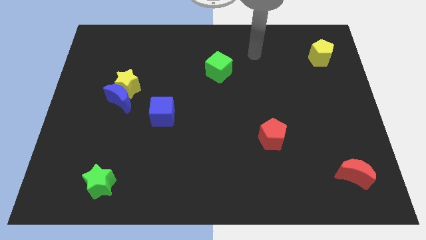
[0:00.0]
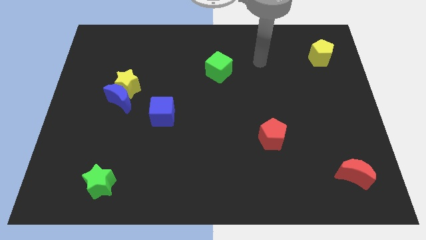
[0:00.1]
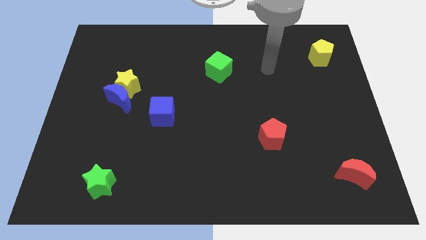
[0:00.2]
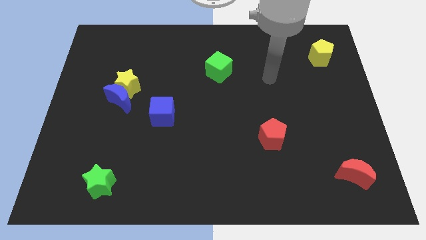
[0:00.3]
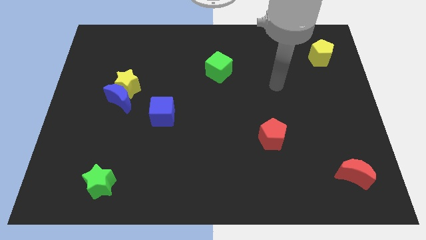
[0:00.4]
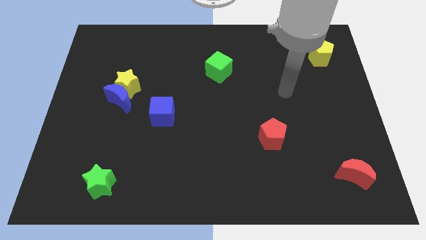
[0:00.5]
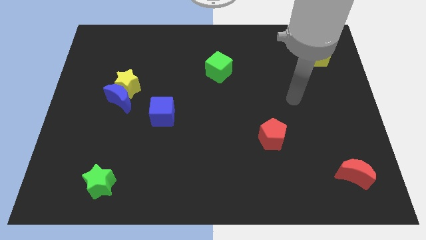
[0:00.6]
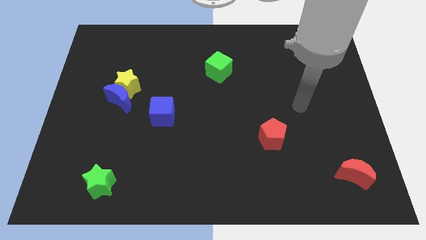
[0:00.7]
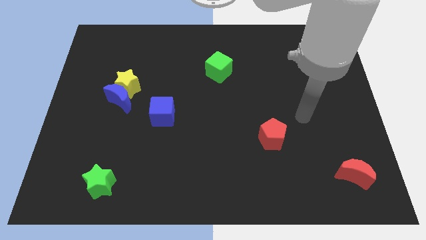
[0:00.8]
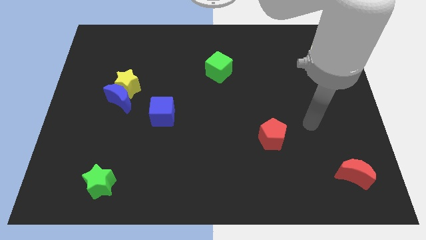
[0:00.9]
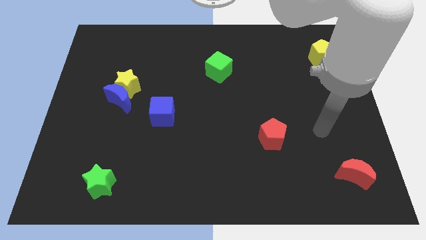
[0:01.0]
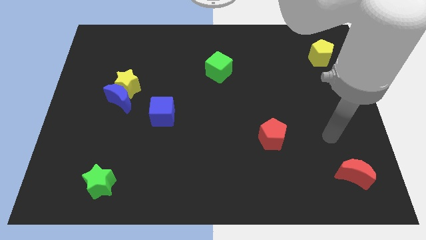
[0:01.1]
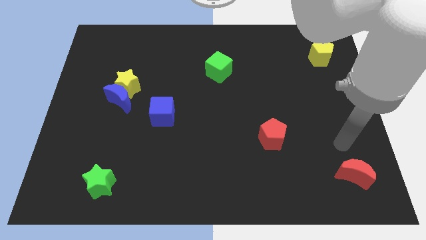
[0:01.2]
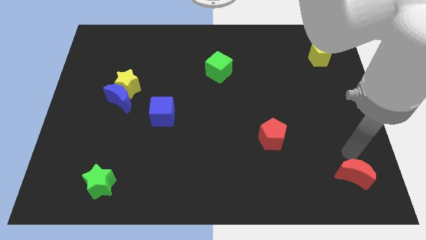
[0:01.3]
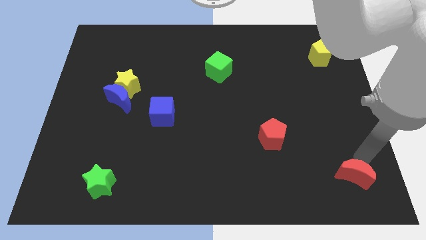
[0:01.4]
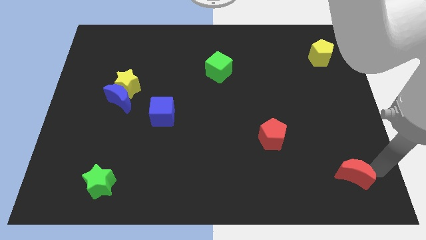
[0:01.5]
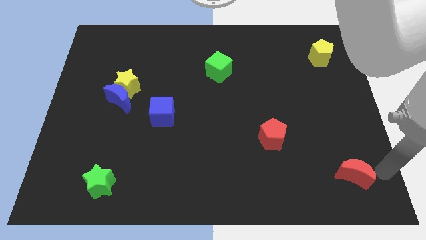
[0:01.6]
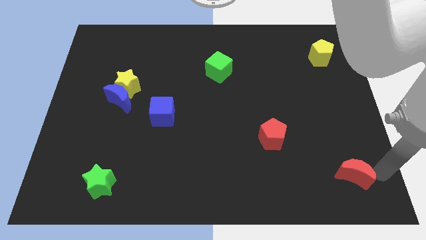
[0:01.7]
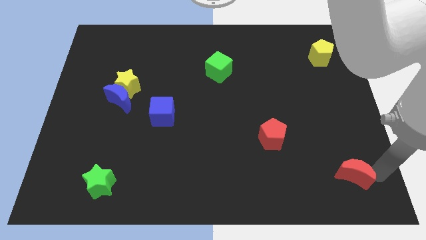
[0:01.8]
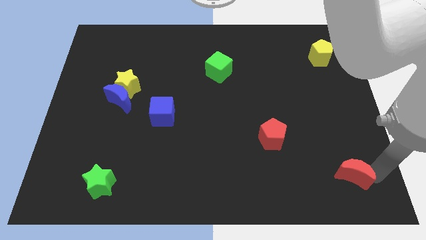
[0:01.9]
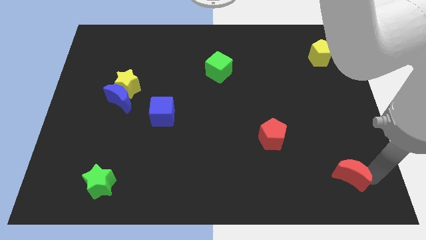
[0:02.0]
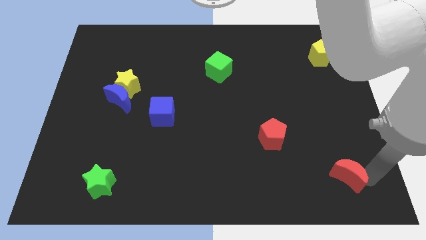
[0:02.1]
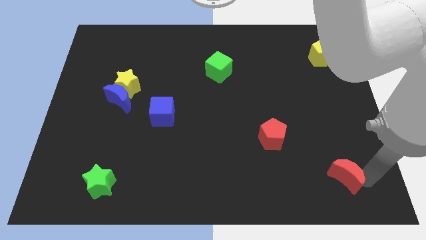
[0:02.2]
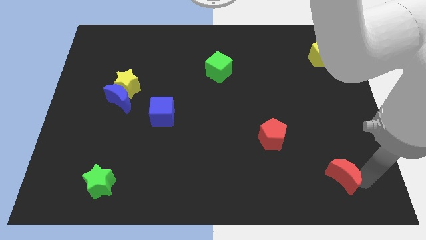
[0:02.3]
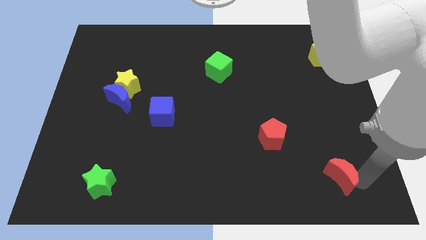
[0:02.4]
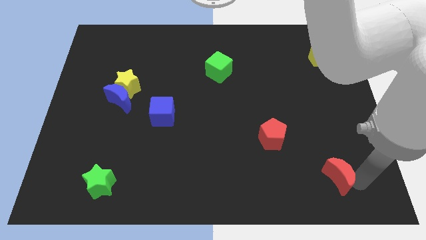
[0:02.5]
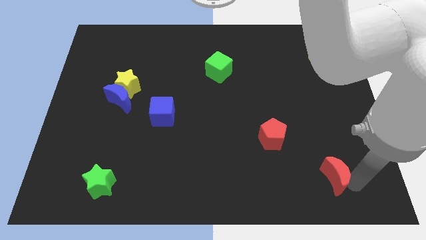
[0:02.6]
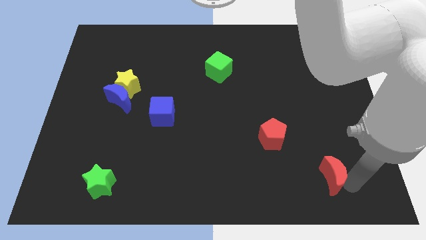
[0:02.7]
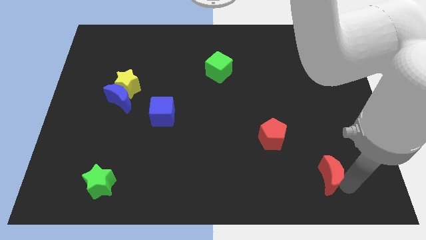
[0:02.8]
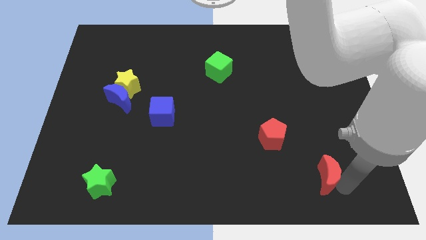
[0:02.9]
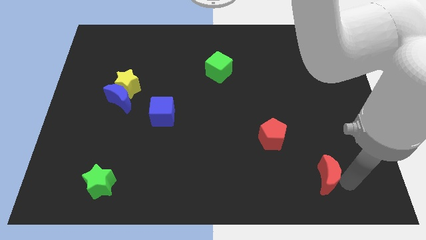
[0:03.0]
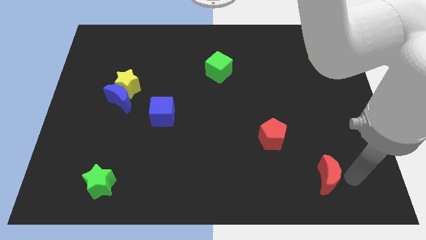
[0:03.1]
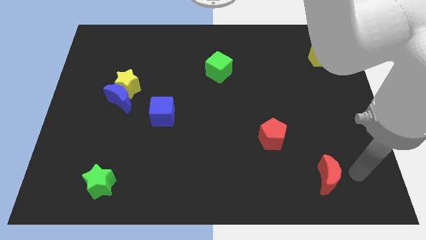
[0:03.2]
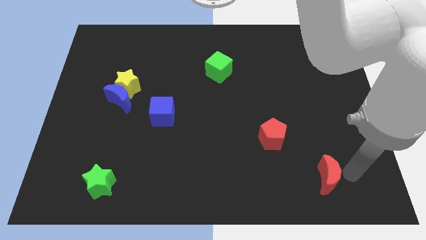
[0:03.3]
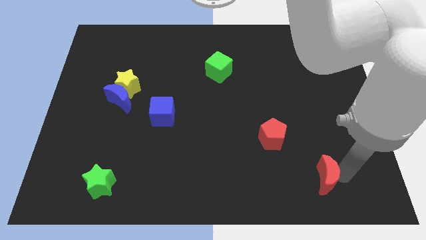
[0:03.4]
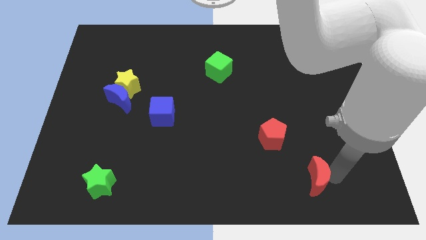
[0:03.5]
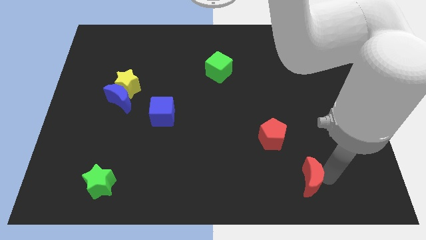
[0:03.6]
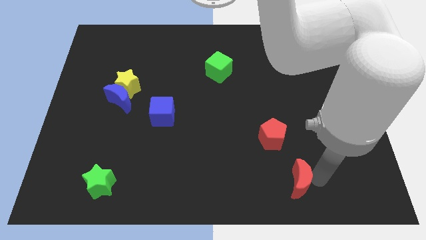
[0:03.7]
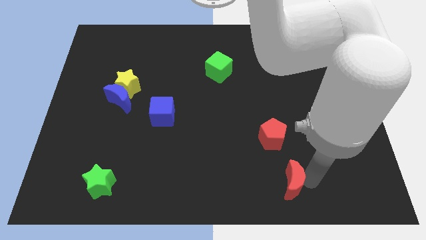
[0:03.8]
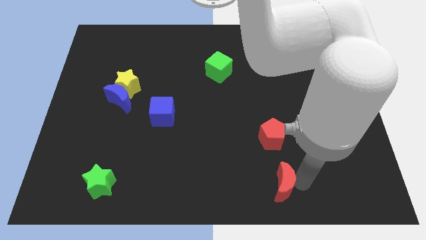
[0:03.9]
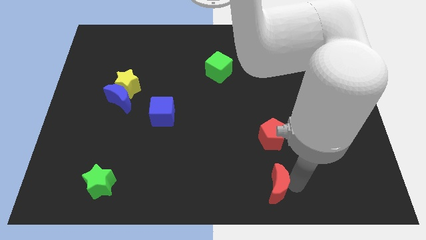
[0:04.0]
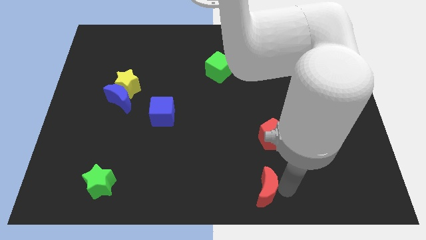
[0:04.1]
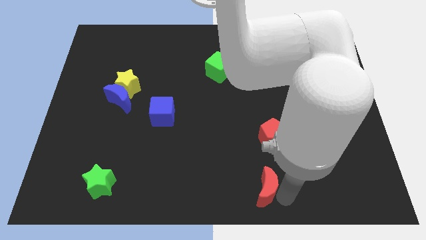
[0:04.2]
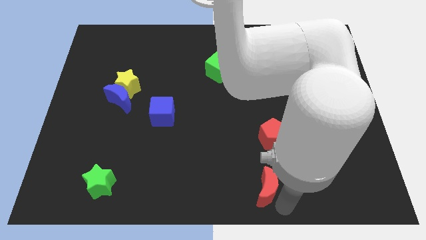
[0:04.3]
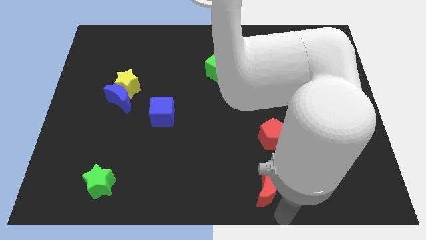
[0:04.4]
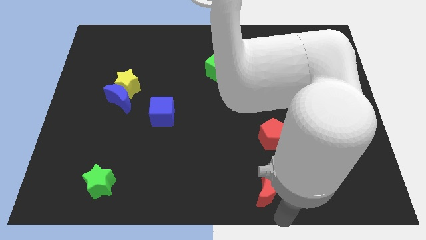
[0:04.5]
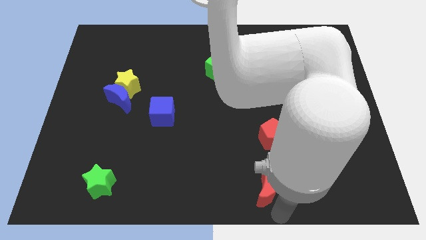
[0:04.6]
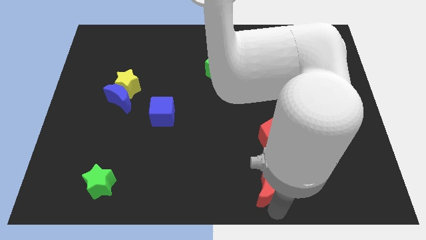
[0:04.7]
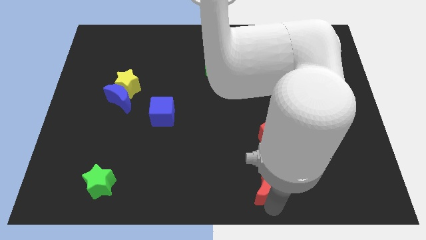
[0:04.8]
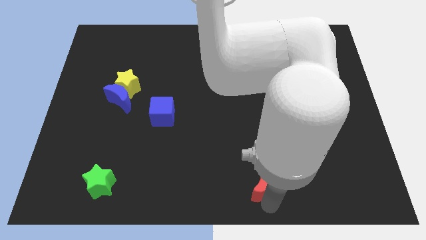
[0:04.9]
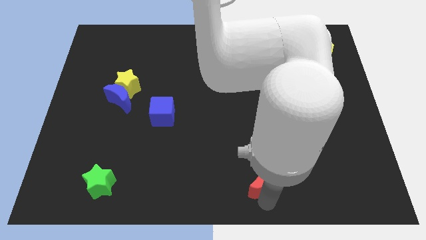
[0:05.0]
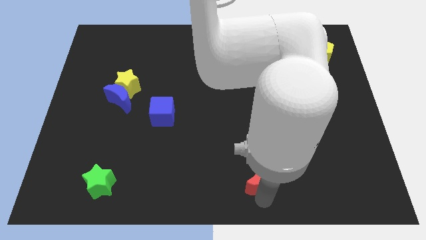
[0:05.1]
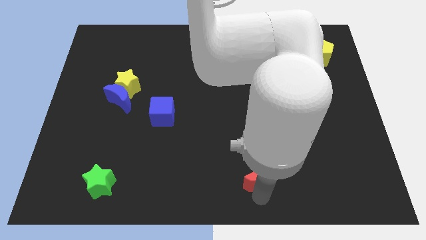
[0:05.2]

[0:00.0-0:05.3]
put the red moon to the bottom left of the red pentagon

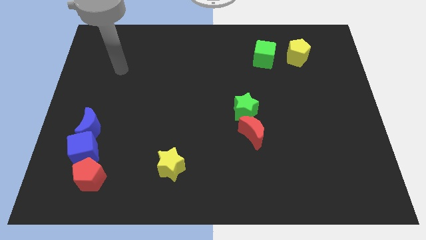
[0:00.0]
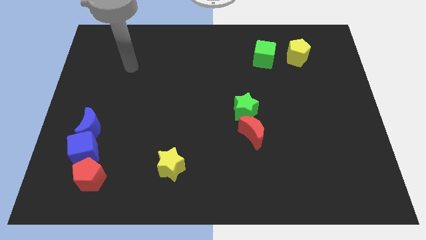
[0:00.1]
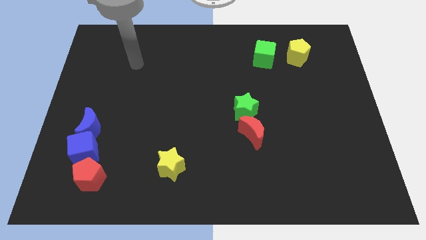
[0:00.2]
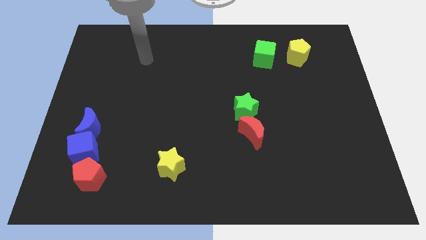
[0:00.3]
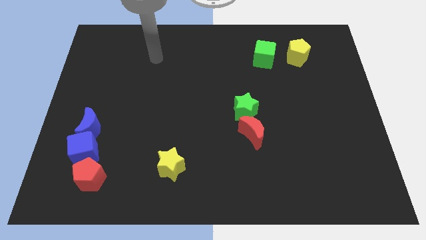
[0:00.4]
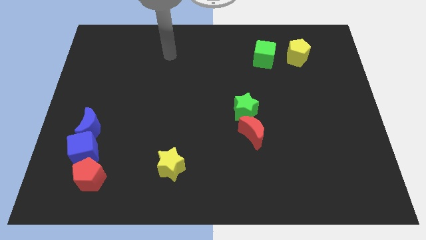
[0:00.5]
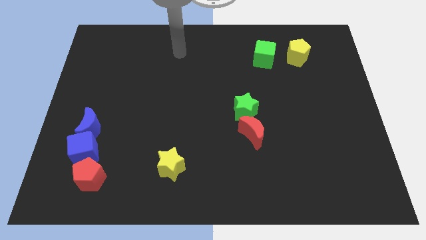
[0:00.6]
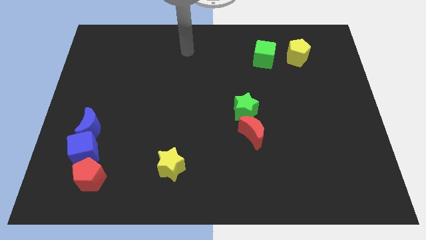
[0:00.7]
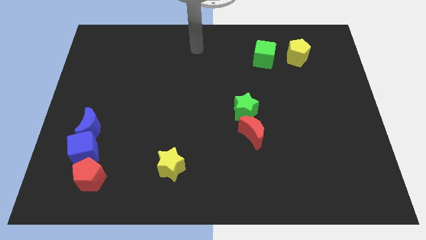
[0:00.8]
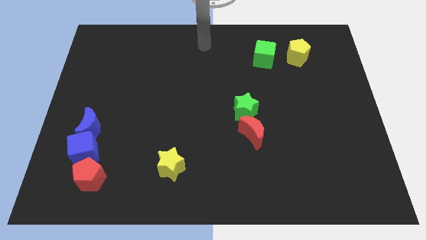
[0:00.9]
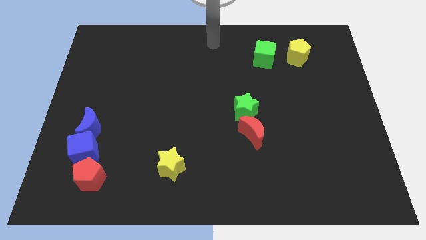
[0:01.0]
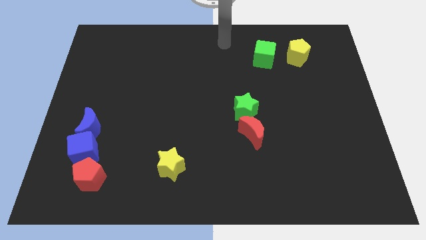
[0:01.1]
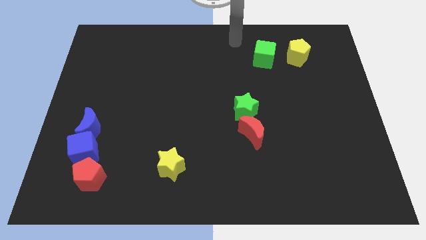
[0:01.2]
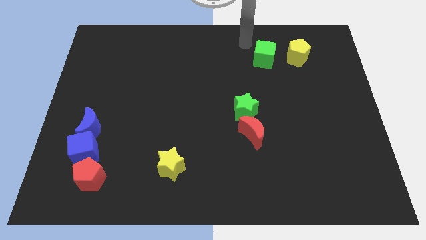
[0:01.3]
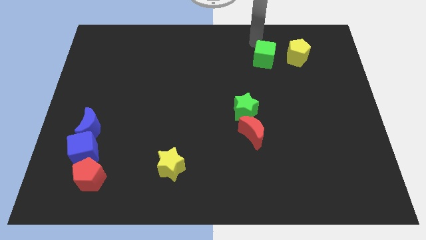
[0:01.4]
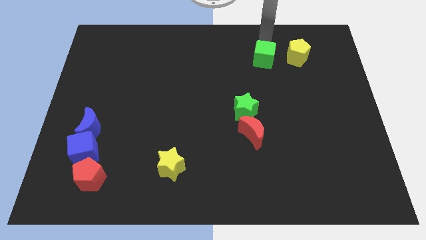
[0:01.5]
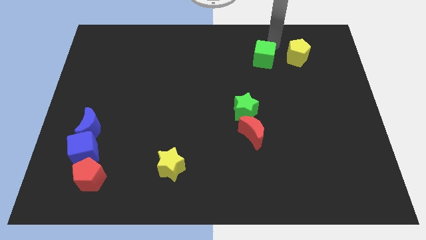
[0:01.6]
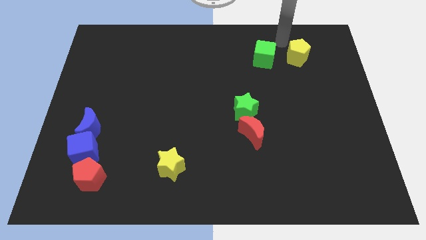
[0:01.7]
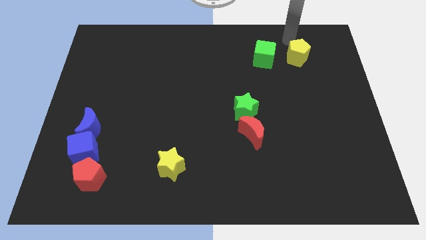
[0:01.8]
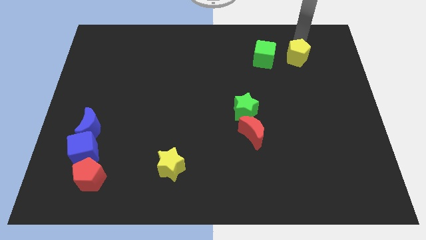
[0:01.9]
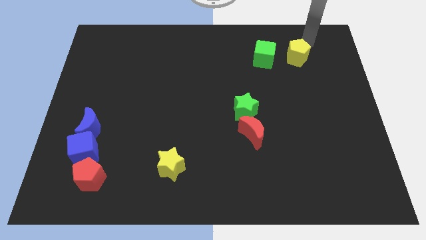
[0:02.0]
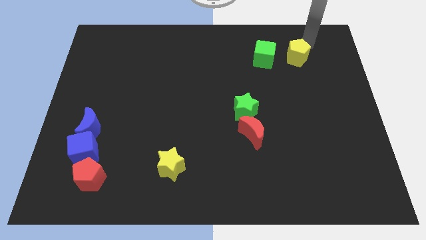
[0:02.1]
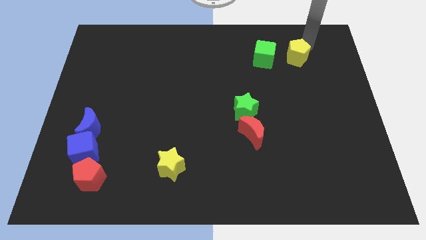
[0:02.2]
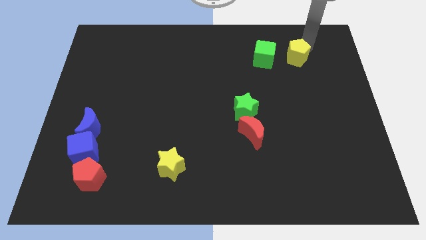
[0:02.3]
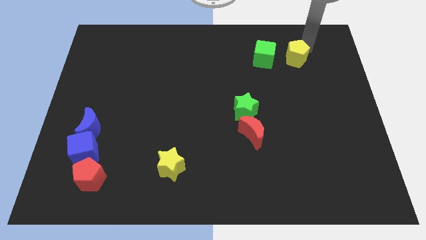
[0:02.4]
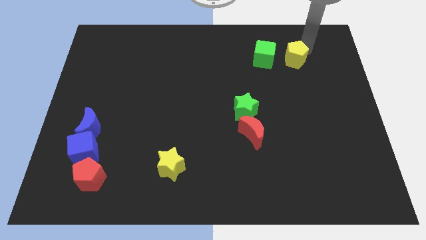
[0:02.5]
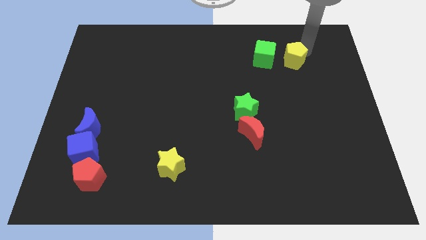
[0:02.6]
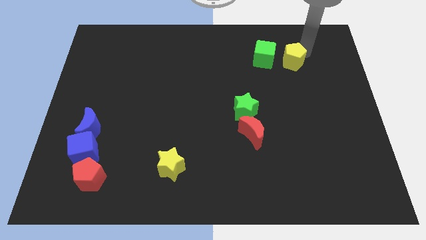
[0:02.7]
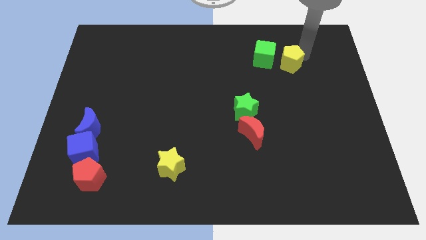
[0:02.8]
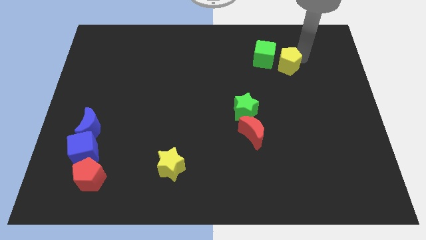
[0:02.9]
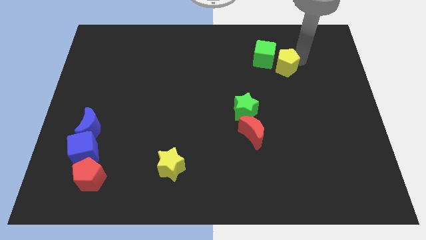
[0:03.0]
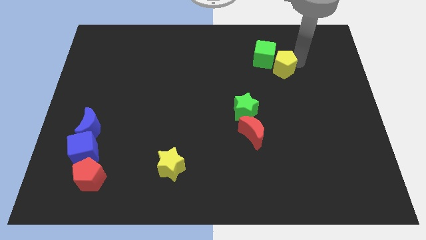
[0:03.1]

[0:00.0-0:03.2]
move the yellow pentagon to the bottom side of the green cube
